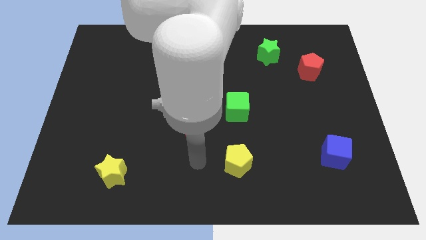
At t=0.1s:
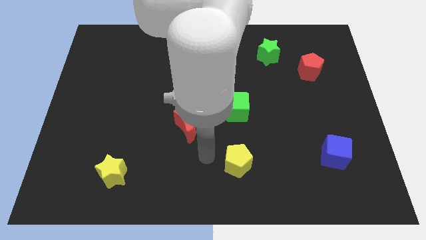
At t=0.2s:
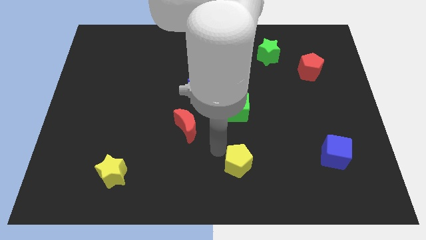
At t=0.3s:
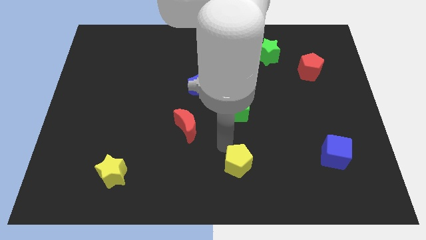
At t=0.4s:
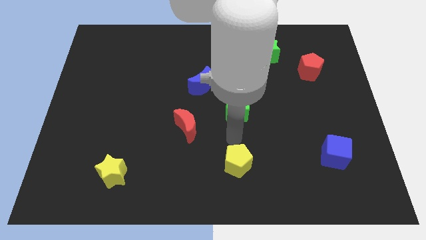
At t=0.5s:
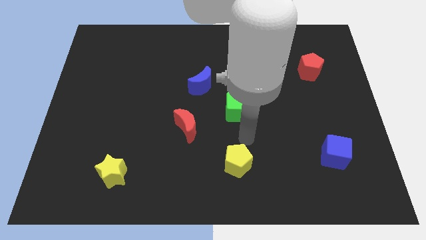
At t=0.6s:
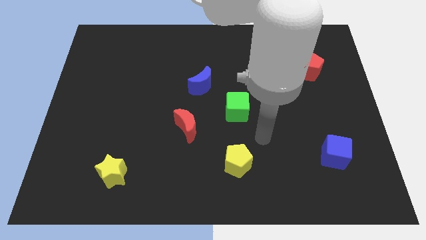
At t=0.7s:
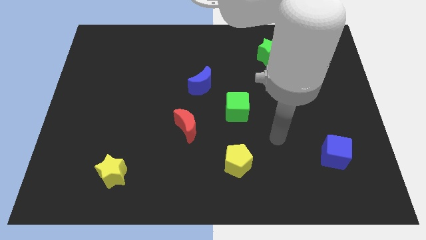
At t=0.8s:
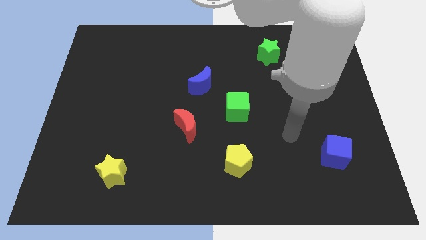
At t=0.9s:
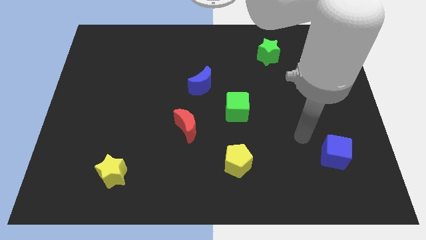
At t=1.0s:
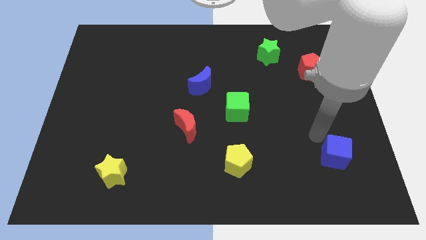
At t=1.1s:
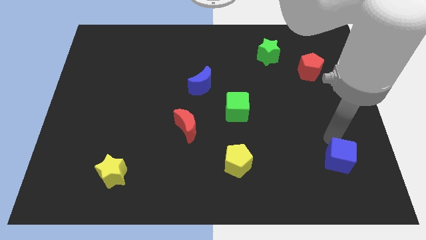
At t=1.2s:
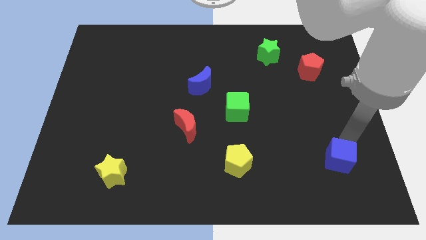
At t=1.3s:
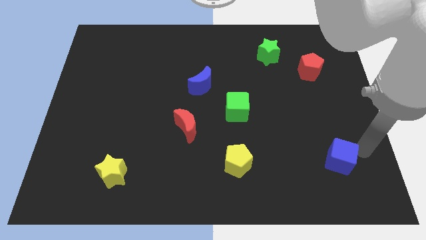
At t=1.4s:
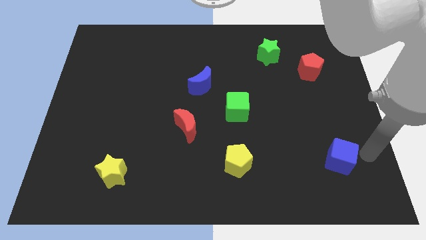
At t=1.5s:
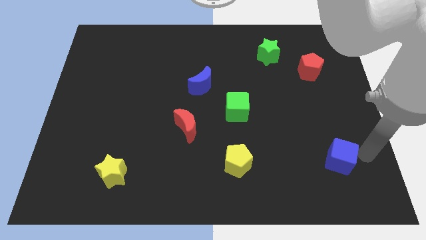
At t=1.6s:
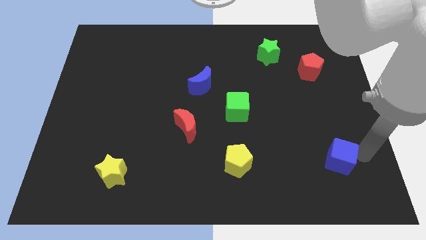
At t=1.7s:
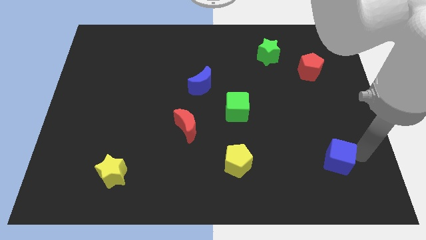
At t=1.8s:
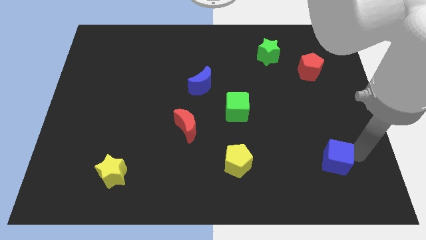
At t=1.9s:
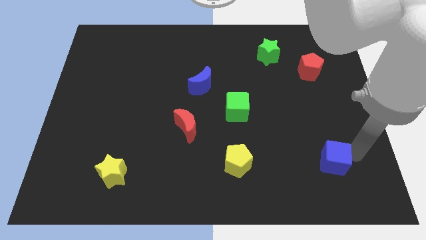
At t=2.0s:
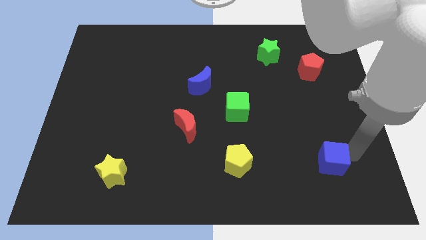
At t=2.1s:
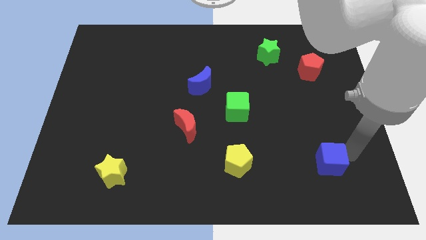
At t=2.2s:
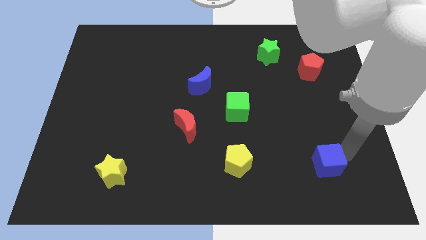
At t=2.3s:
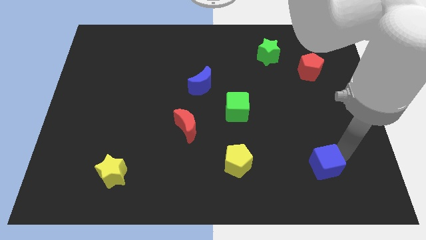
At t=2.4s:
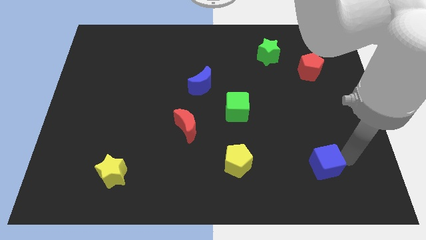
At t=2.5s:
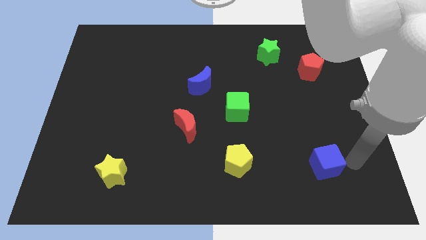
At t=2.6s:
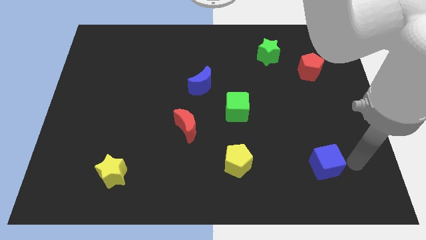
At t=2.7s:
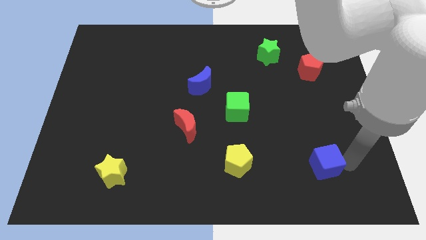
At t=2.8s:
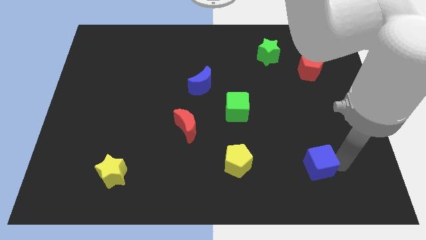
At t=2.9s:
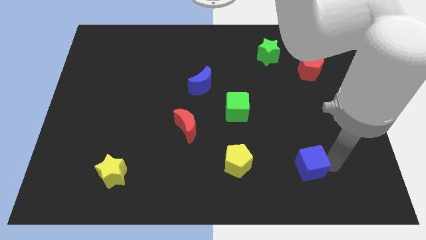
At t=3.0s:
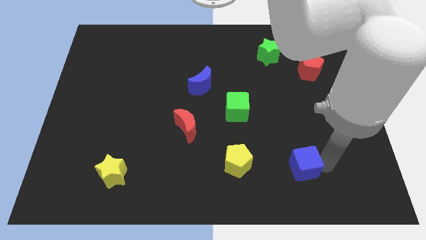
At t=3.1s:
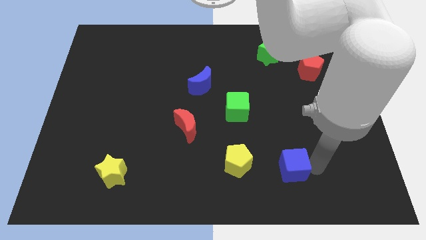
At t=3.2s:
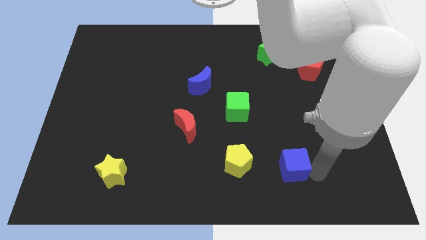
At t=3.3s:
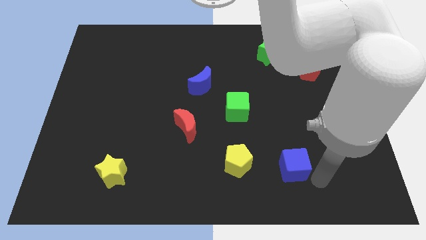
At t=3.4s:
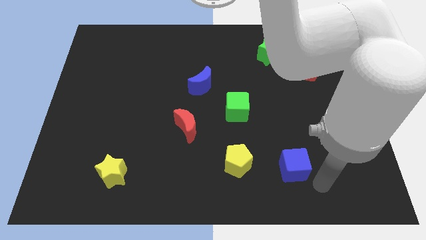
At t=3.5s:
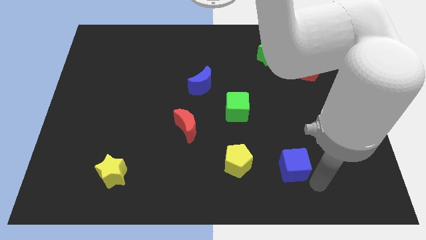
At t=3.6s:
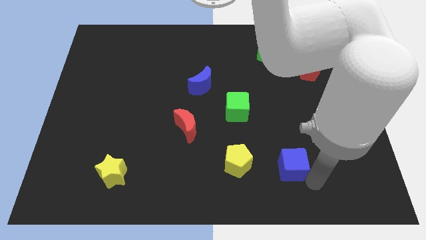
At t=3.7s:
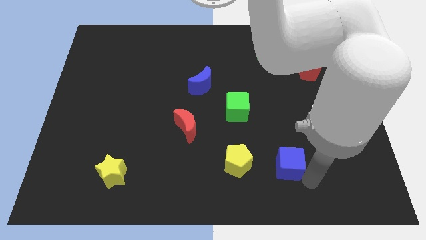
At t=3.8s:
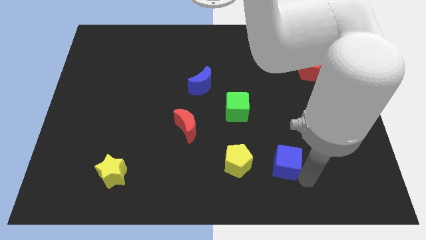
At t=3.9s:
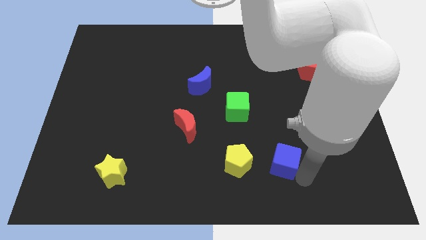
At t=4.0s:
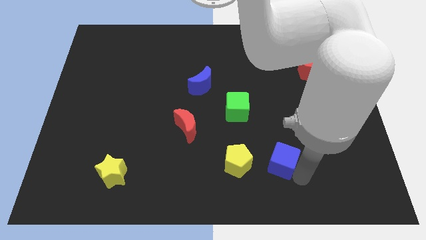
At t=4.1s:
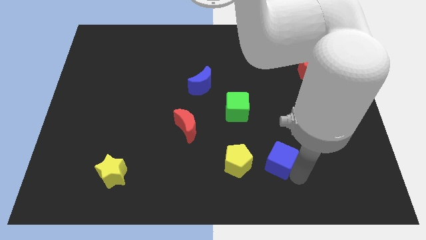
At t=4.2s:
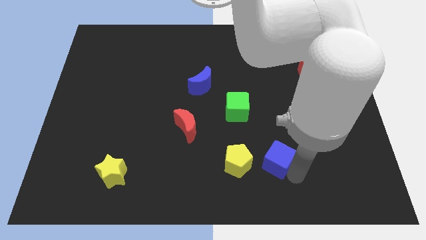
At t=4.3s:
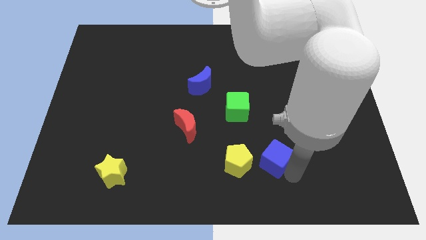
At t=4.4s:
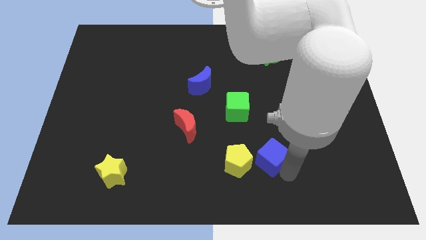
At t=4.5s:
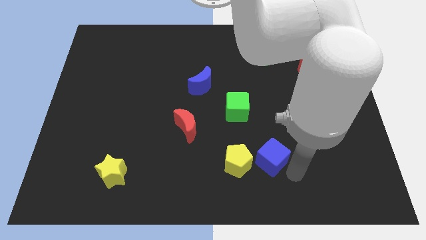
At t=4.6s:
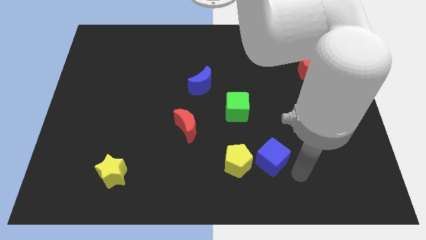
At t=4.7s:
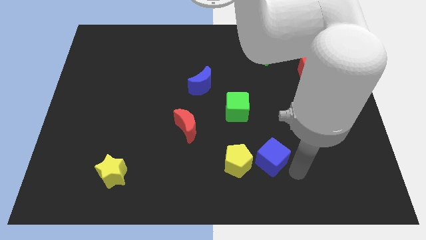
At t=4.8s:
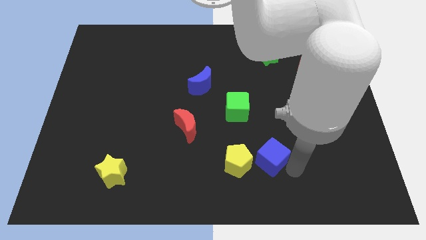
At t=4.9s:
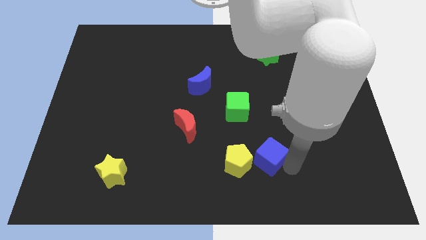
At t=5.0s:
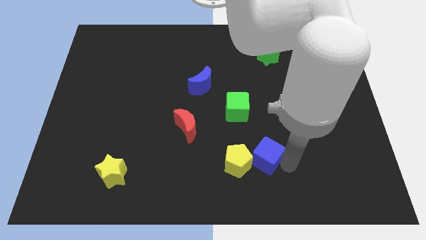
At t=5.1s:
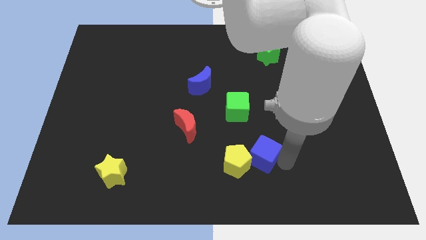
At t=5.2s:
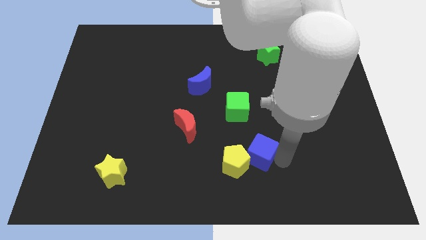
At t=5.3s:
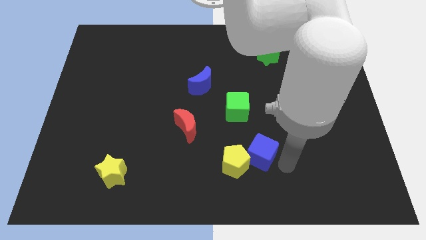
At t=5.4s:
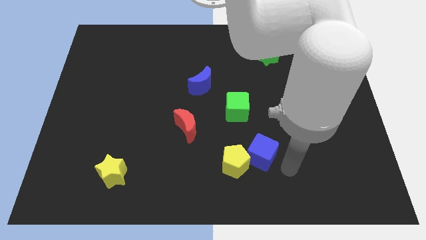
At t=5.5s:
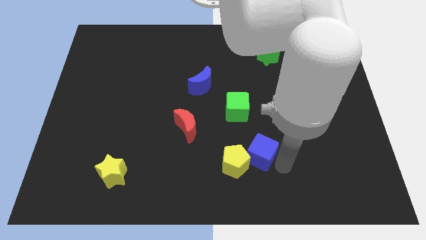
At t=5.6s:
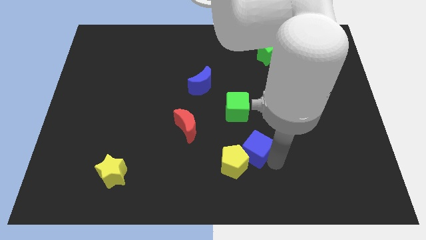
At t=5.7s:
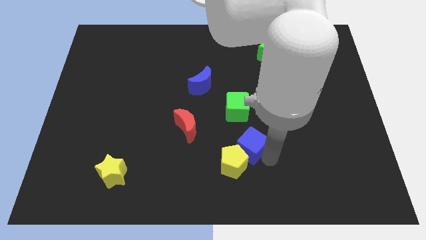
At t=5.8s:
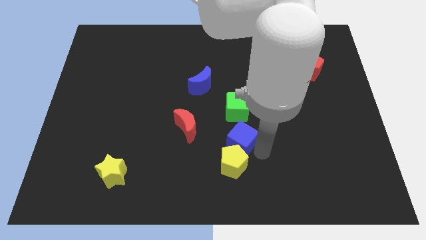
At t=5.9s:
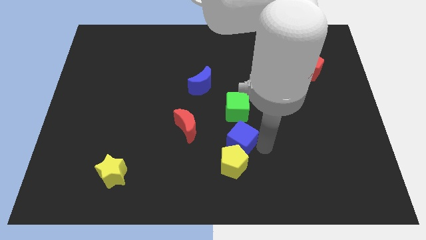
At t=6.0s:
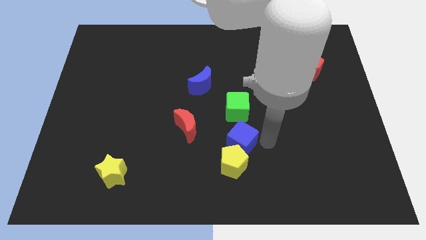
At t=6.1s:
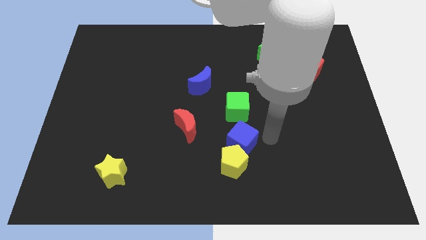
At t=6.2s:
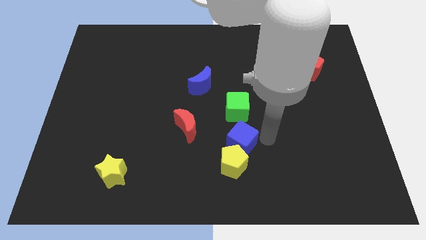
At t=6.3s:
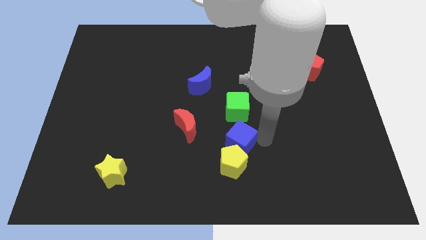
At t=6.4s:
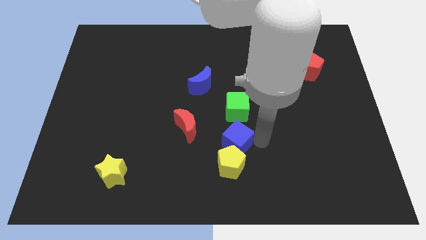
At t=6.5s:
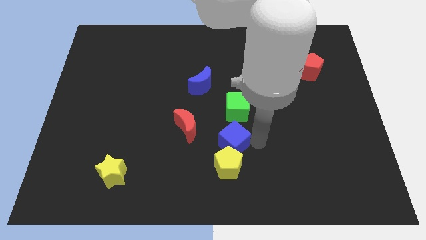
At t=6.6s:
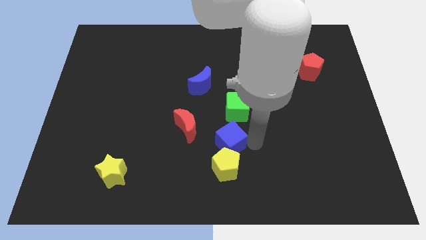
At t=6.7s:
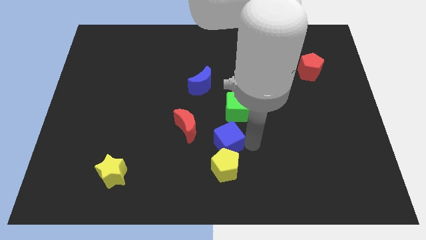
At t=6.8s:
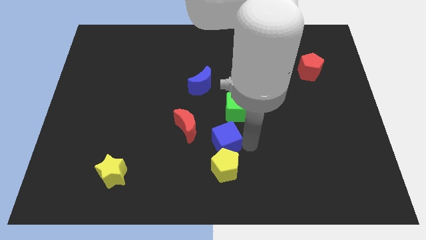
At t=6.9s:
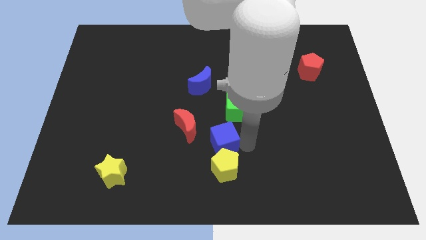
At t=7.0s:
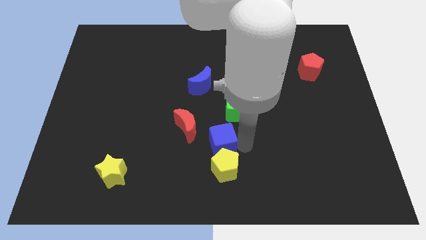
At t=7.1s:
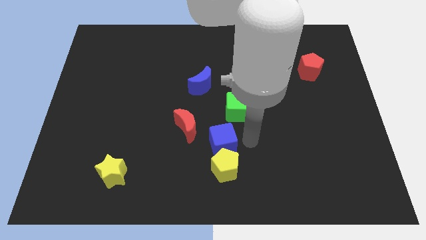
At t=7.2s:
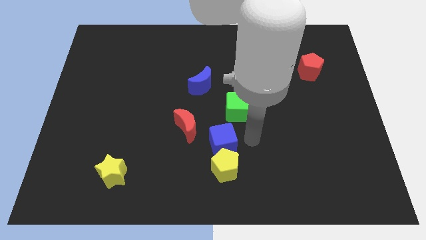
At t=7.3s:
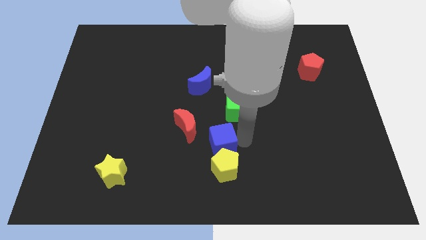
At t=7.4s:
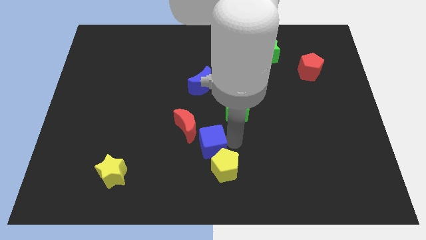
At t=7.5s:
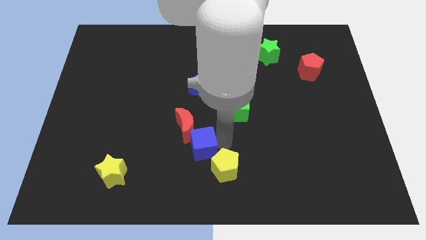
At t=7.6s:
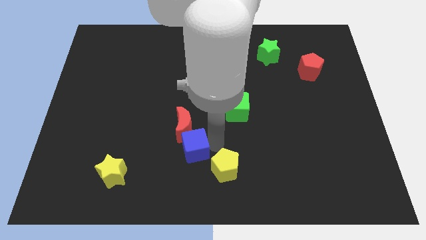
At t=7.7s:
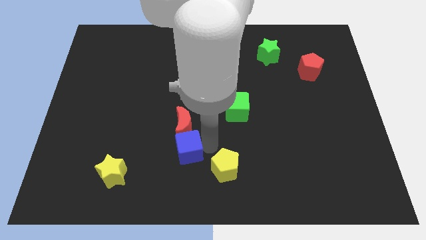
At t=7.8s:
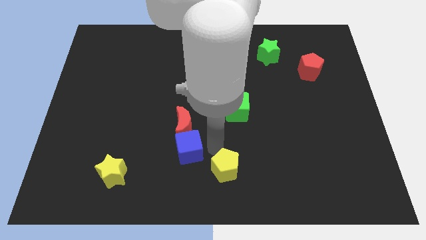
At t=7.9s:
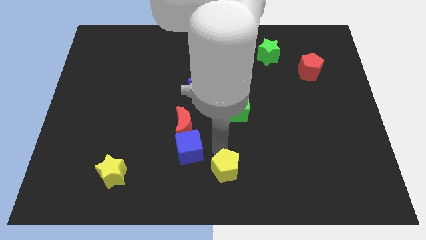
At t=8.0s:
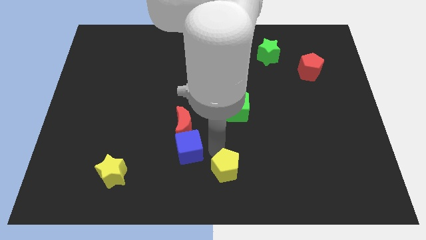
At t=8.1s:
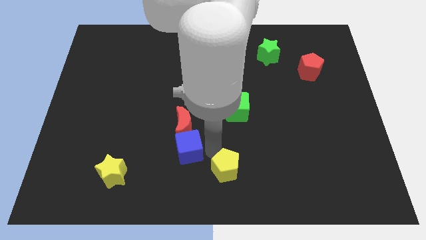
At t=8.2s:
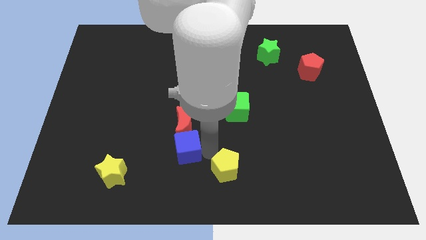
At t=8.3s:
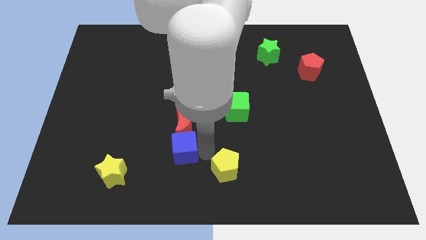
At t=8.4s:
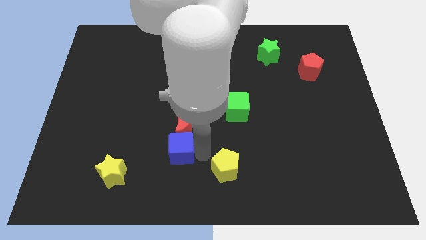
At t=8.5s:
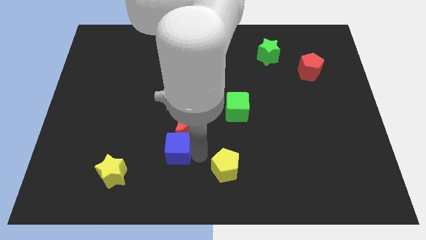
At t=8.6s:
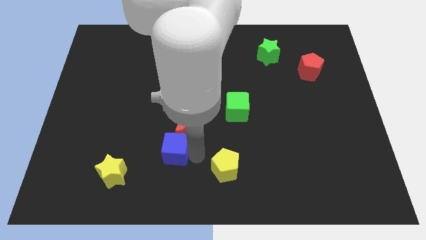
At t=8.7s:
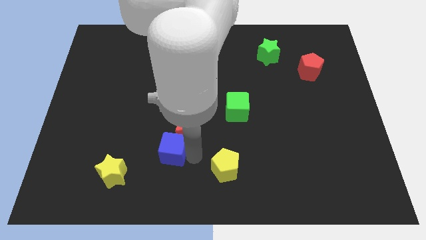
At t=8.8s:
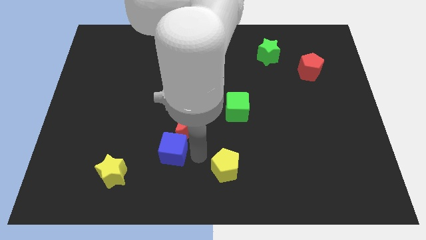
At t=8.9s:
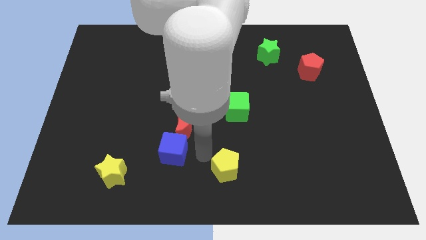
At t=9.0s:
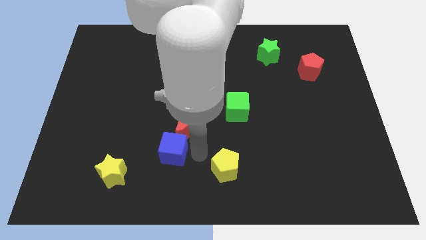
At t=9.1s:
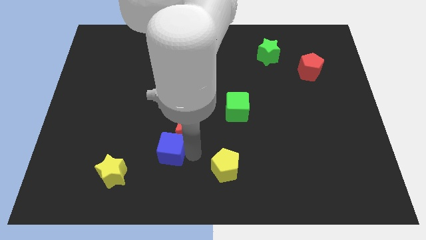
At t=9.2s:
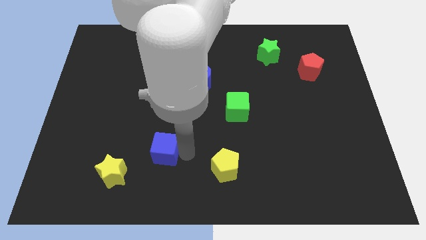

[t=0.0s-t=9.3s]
slide the blue cube to the top right side of the yellow star
